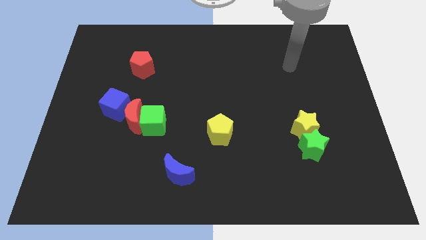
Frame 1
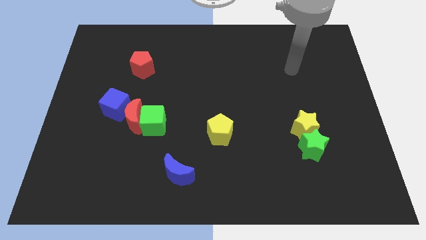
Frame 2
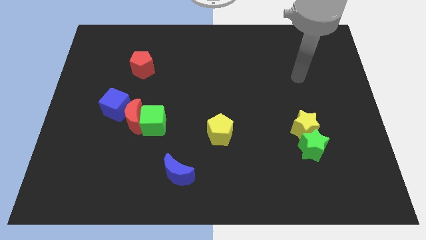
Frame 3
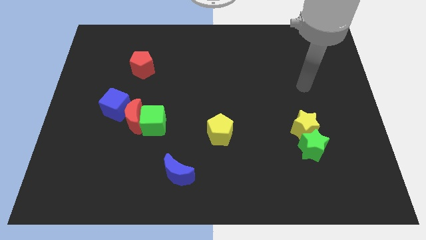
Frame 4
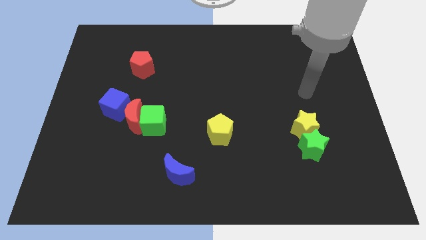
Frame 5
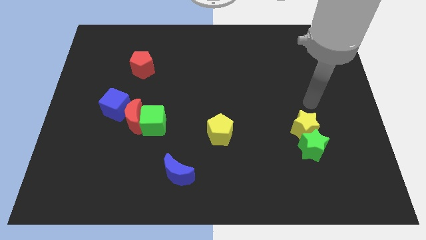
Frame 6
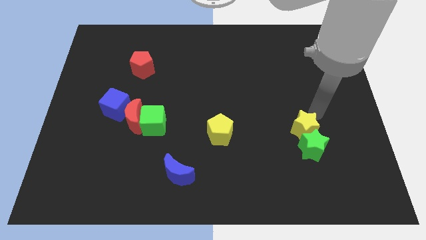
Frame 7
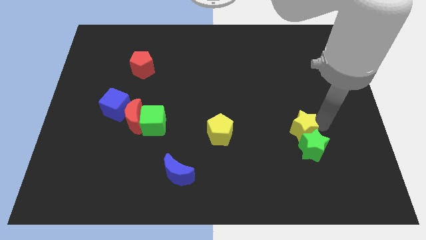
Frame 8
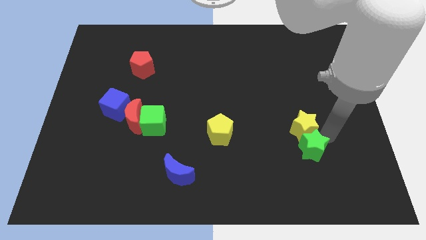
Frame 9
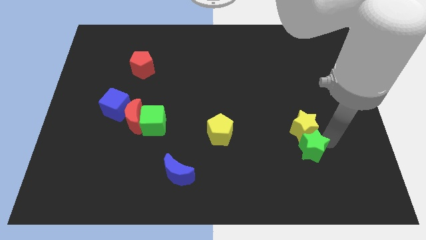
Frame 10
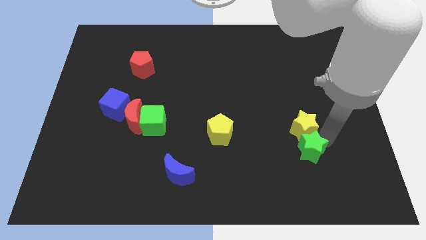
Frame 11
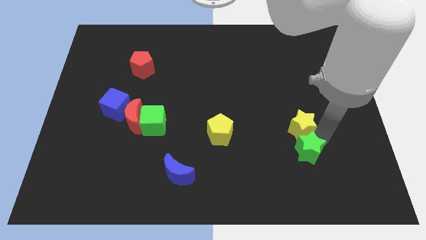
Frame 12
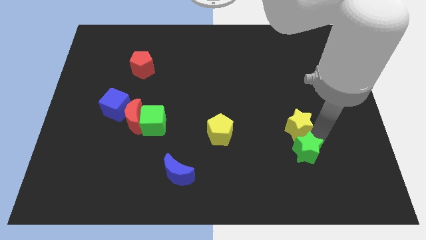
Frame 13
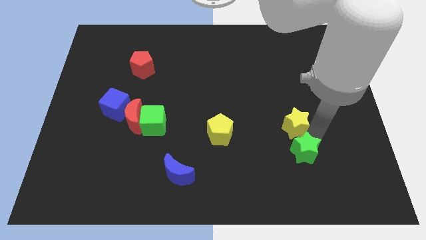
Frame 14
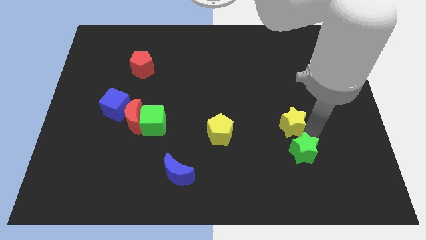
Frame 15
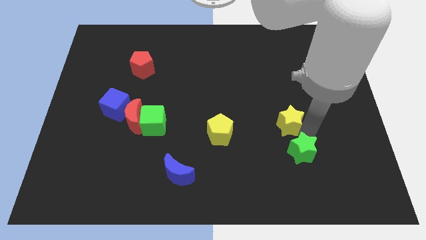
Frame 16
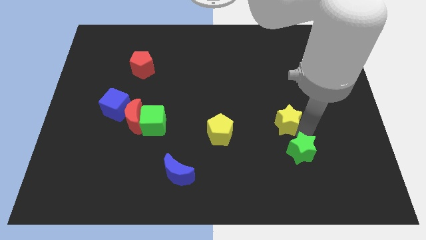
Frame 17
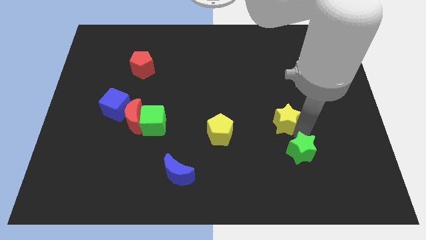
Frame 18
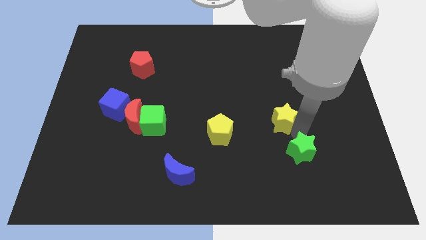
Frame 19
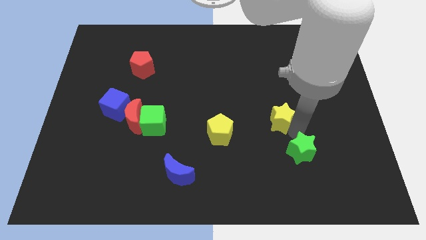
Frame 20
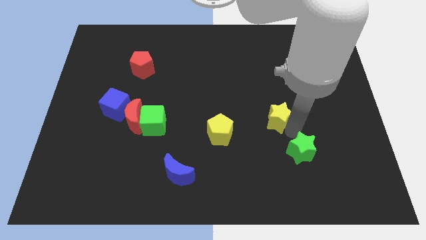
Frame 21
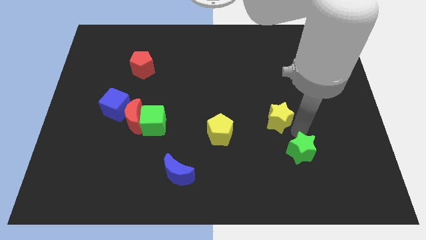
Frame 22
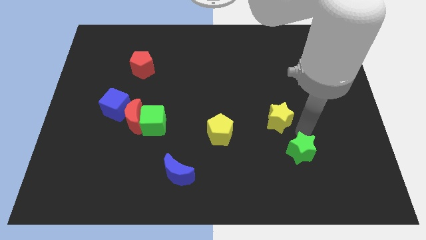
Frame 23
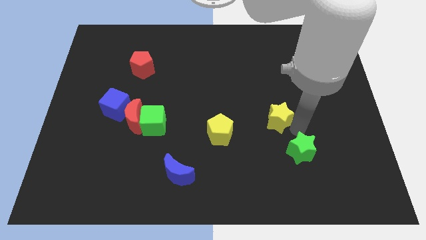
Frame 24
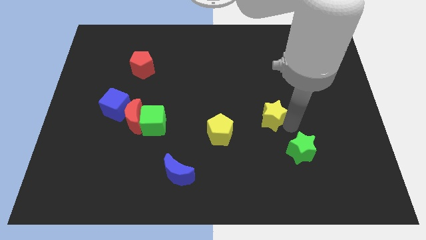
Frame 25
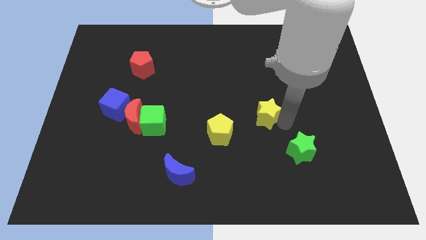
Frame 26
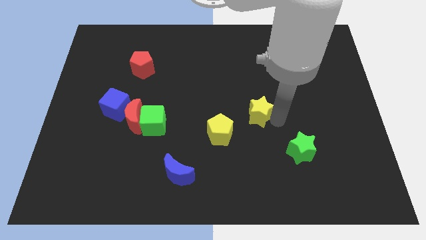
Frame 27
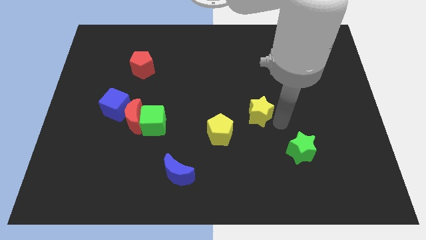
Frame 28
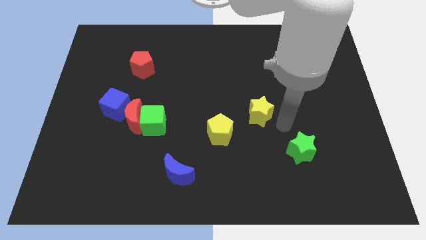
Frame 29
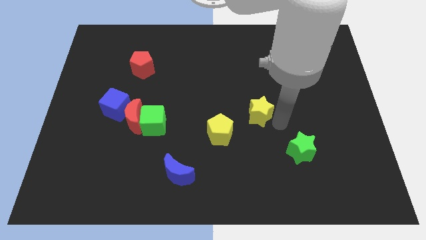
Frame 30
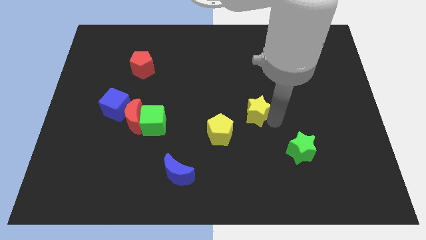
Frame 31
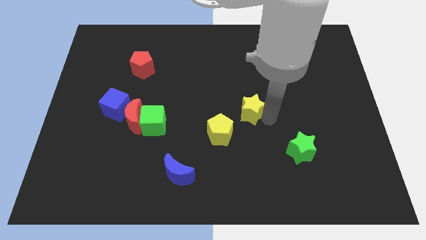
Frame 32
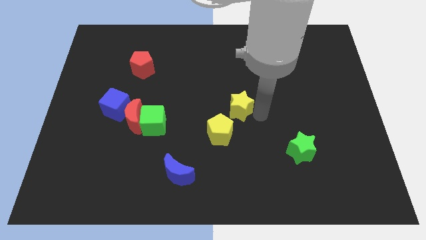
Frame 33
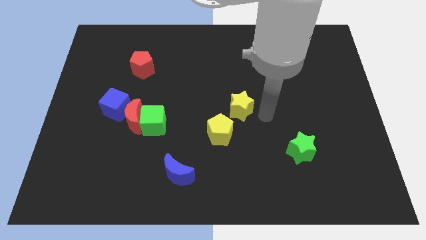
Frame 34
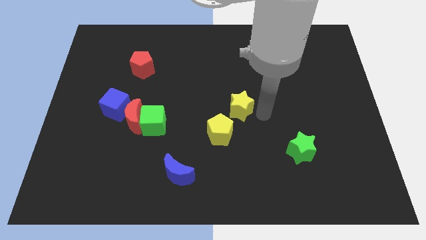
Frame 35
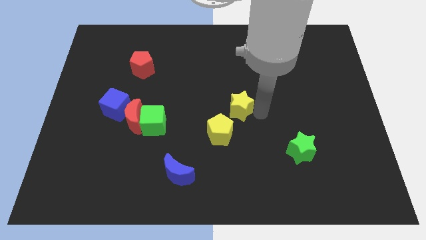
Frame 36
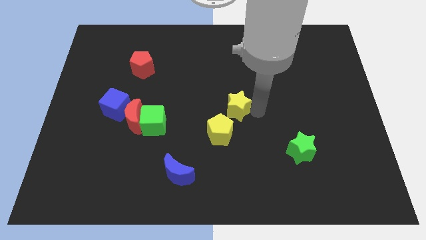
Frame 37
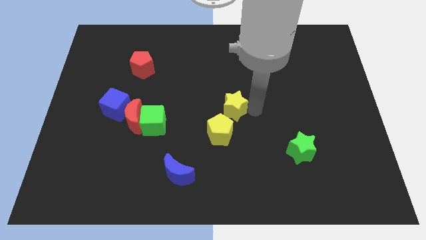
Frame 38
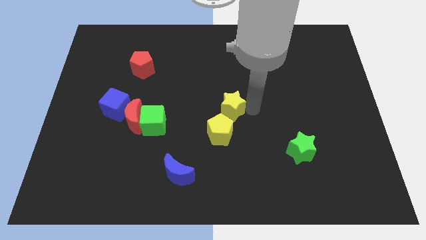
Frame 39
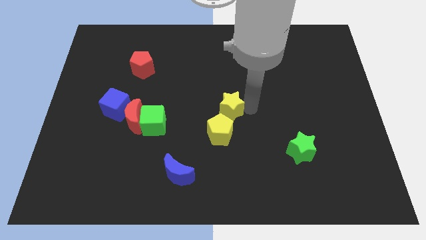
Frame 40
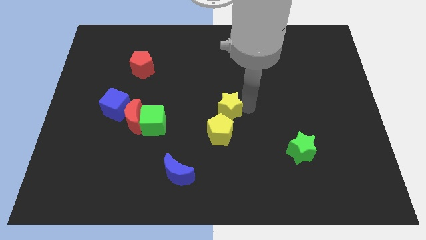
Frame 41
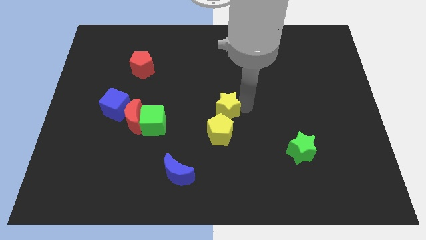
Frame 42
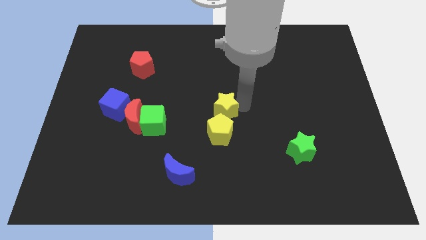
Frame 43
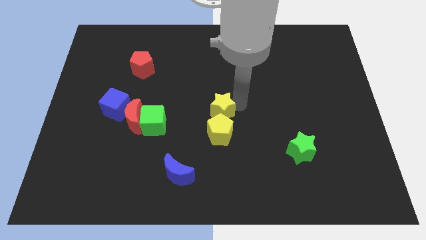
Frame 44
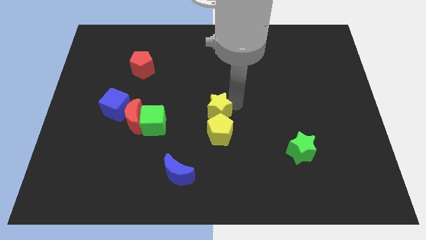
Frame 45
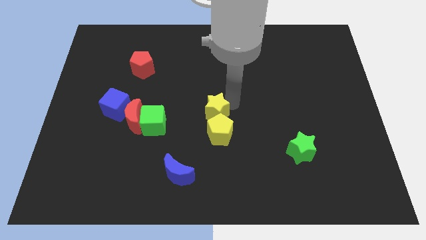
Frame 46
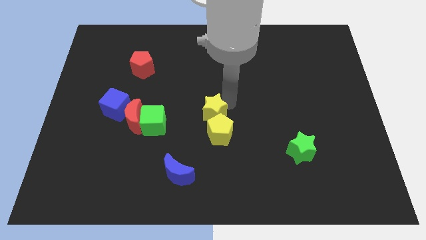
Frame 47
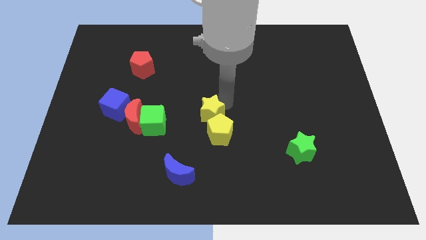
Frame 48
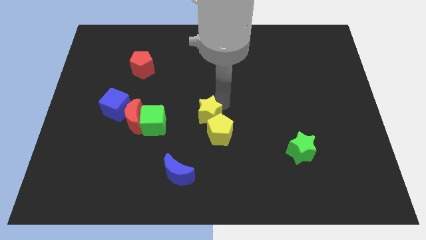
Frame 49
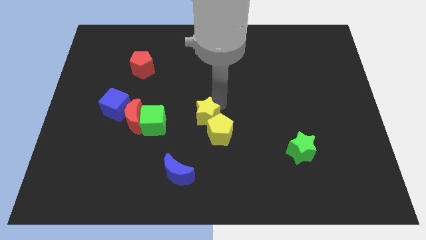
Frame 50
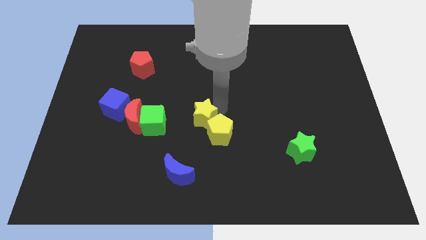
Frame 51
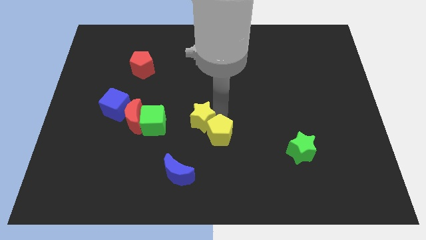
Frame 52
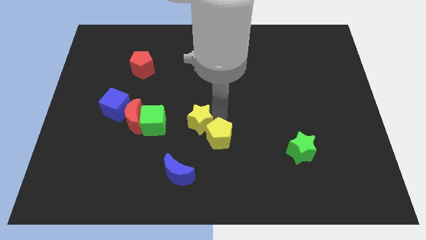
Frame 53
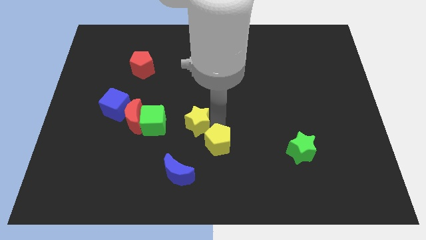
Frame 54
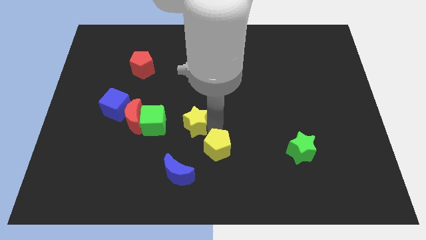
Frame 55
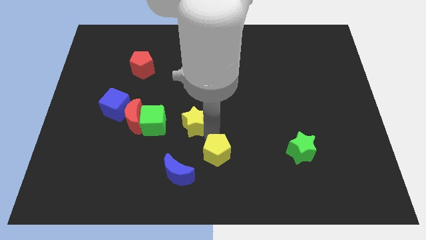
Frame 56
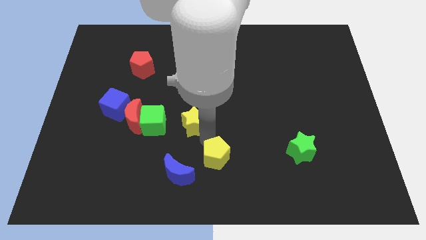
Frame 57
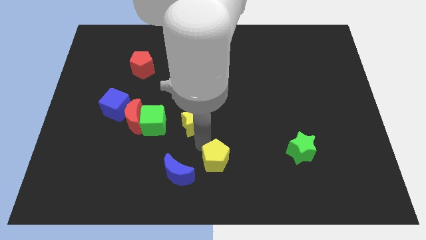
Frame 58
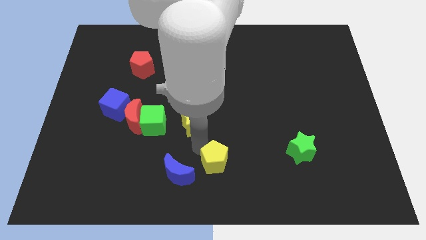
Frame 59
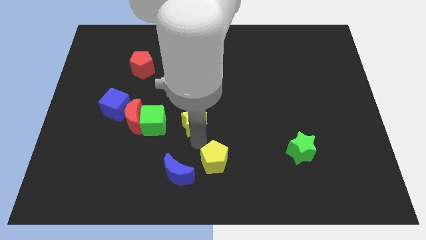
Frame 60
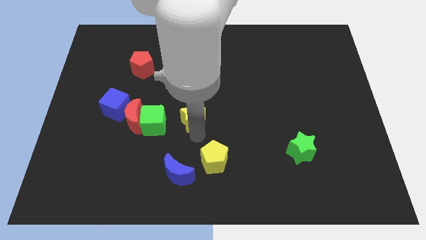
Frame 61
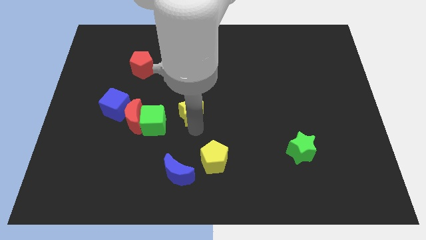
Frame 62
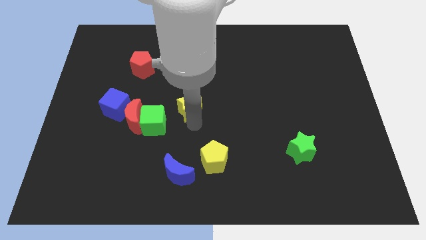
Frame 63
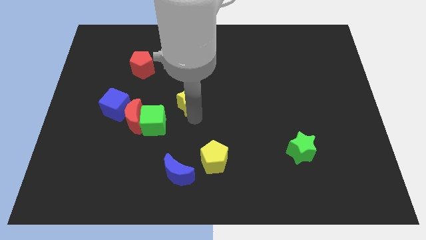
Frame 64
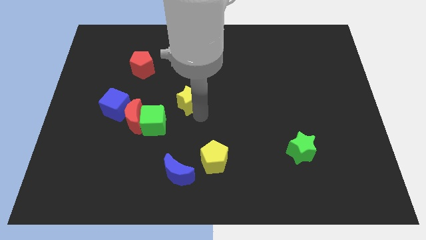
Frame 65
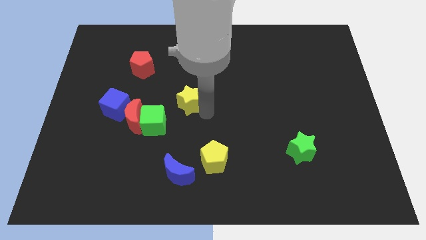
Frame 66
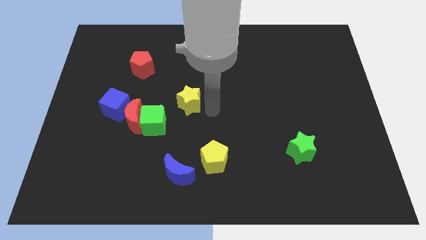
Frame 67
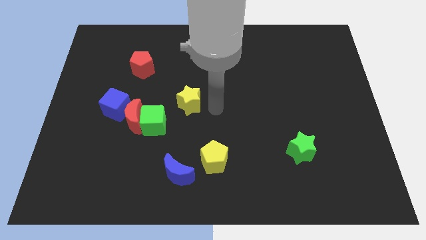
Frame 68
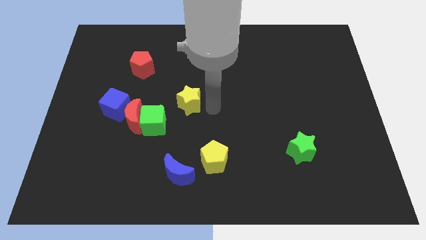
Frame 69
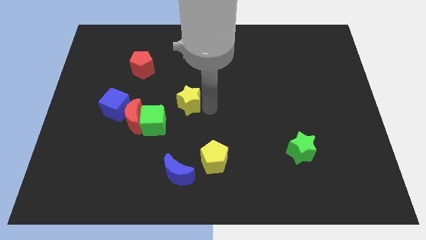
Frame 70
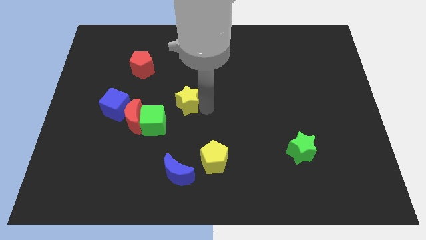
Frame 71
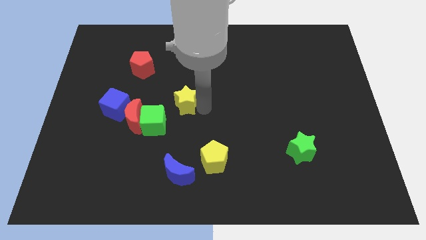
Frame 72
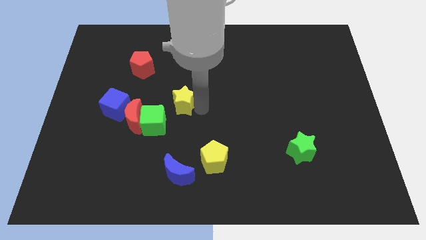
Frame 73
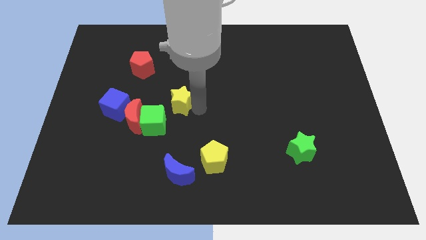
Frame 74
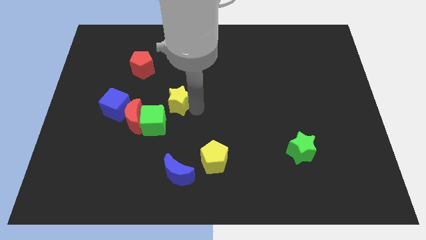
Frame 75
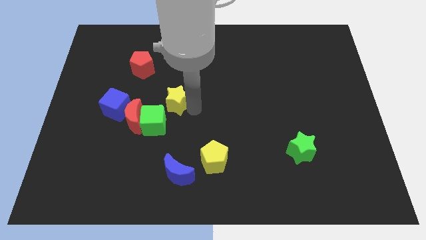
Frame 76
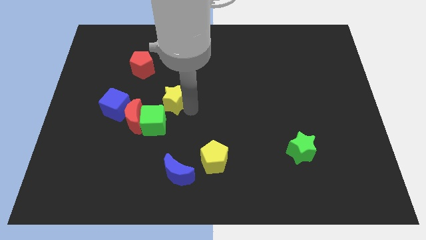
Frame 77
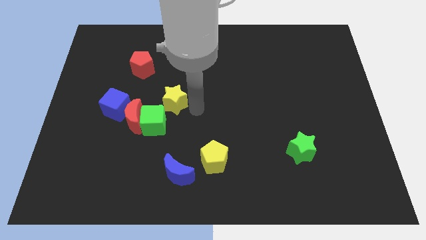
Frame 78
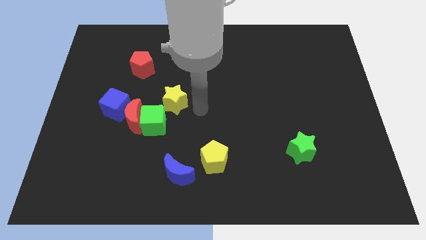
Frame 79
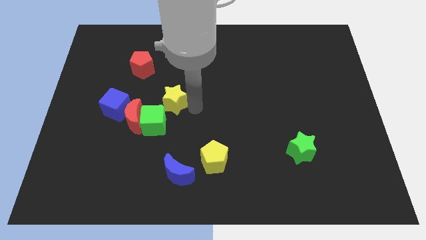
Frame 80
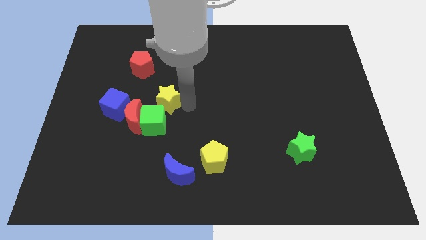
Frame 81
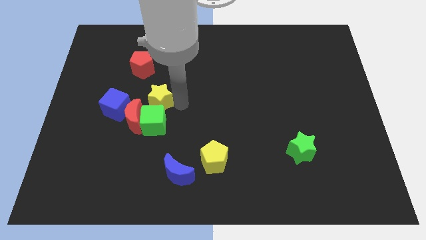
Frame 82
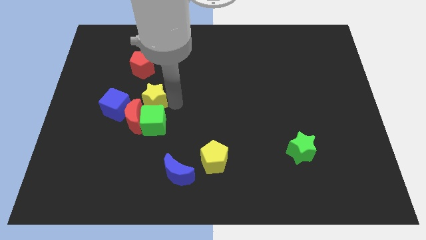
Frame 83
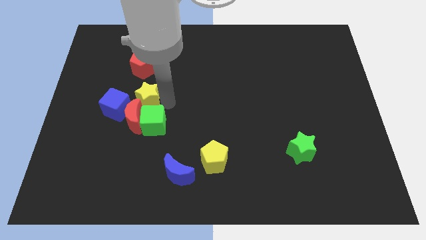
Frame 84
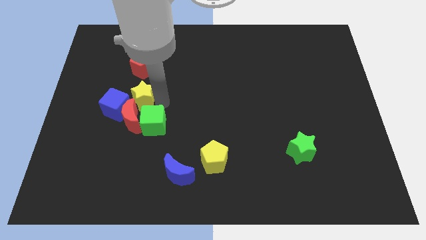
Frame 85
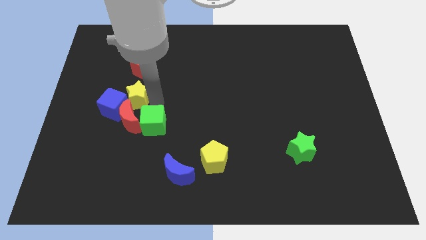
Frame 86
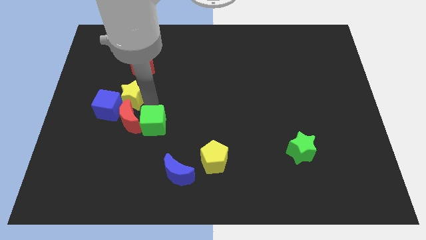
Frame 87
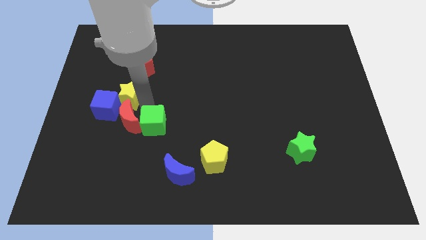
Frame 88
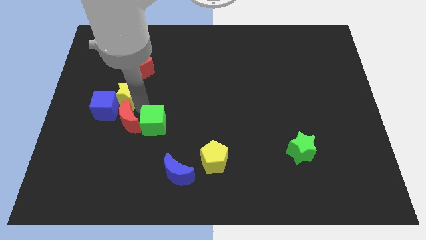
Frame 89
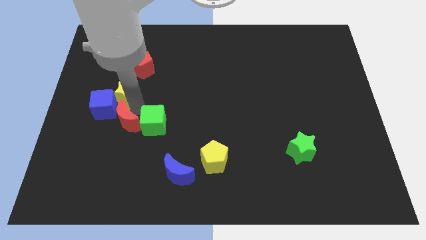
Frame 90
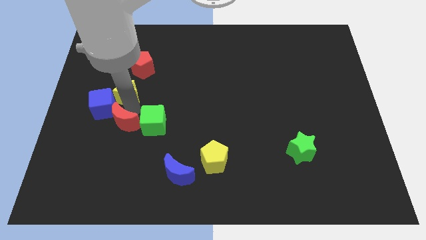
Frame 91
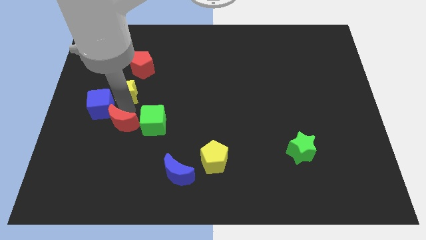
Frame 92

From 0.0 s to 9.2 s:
put the yellow star to the bottom left of the red pentagon
